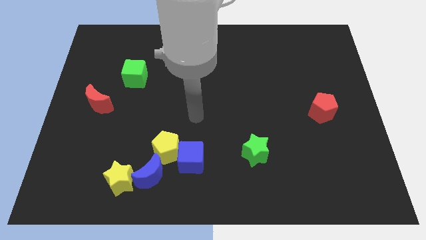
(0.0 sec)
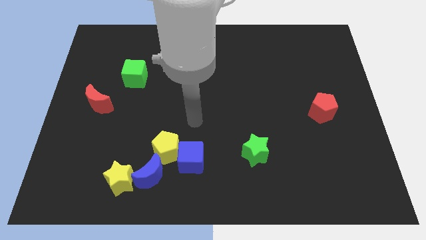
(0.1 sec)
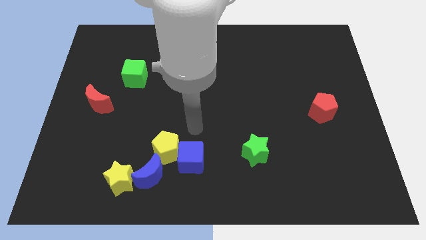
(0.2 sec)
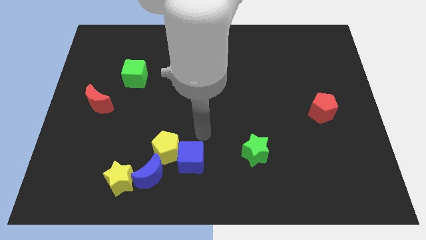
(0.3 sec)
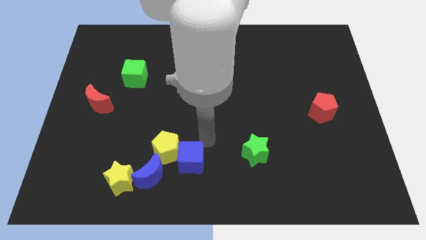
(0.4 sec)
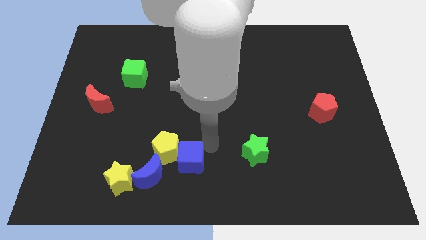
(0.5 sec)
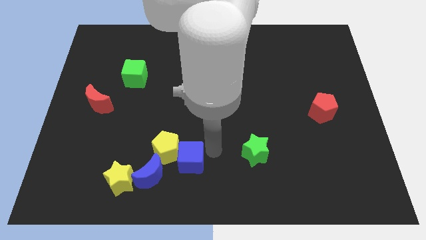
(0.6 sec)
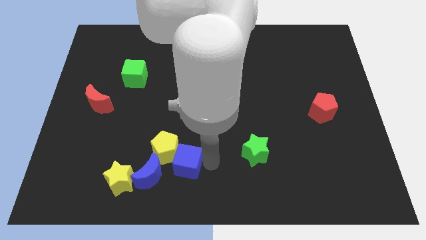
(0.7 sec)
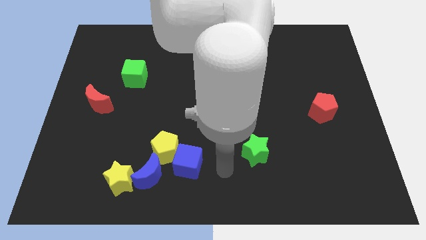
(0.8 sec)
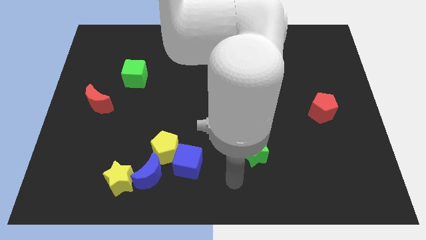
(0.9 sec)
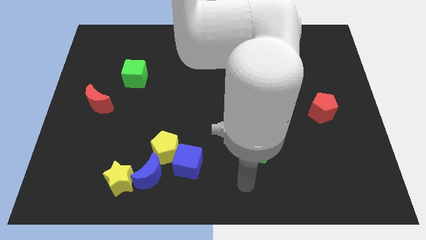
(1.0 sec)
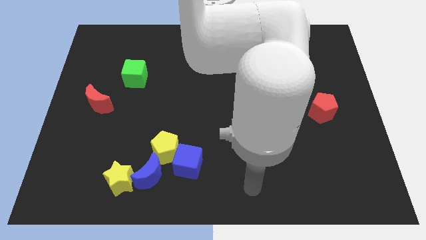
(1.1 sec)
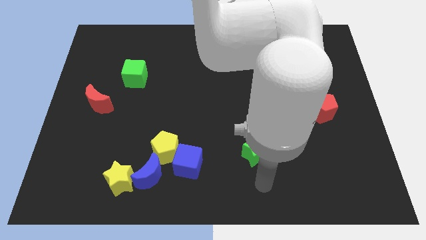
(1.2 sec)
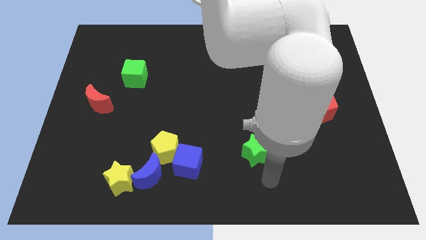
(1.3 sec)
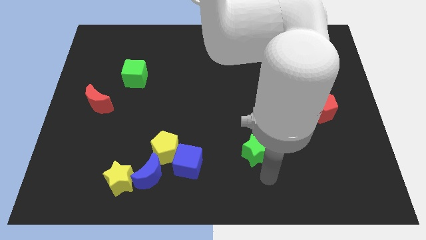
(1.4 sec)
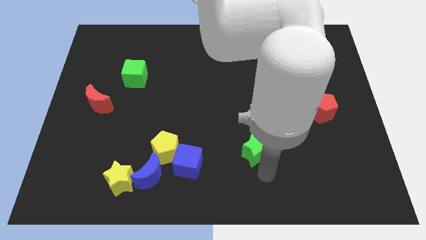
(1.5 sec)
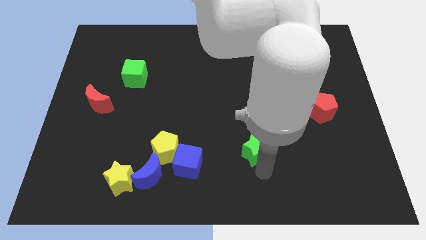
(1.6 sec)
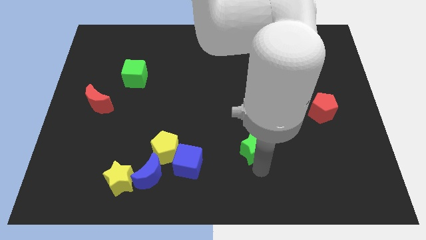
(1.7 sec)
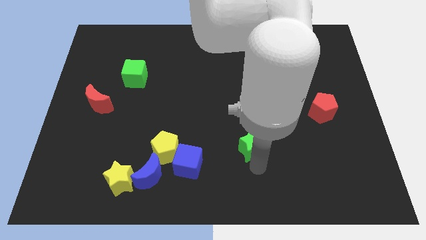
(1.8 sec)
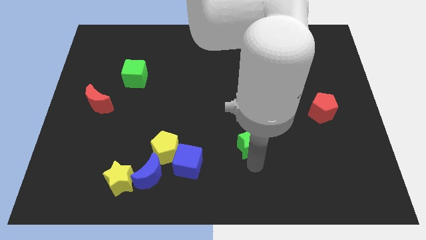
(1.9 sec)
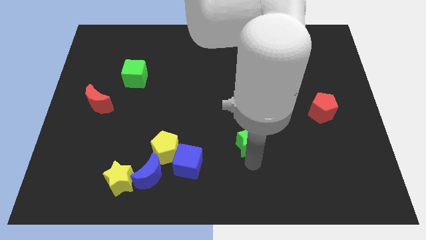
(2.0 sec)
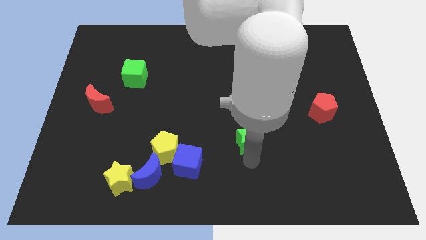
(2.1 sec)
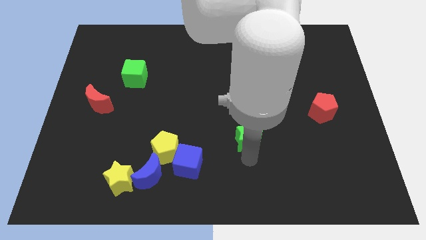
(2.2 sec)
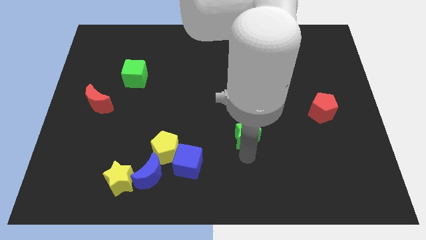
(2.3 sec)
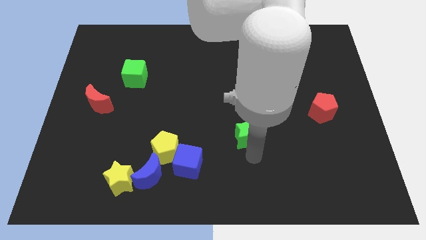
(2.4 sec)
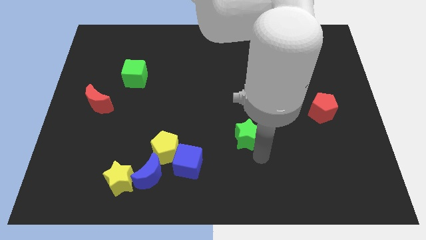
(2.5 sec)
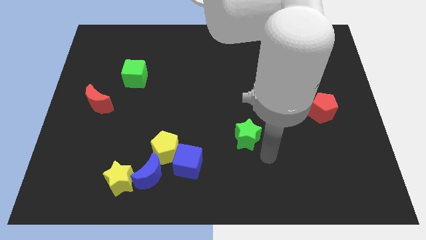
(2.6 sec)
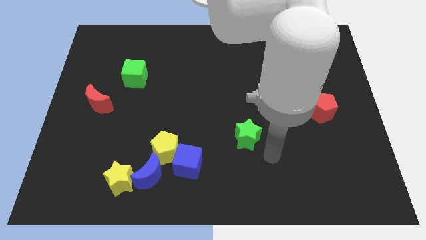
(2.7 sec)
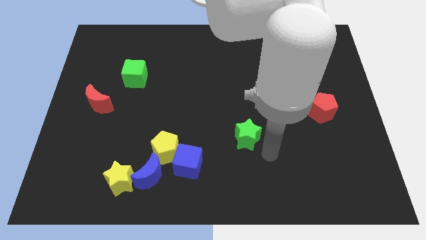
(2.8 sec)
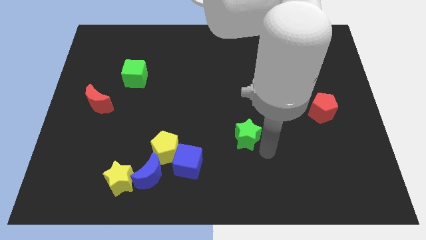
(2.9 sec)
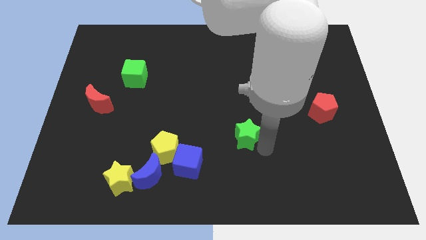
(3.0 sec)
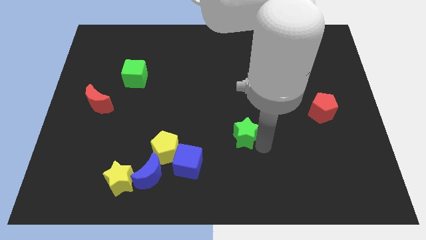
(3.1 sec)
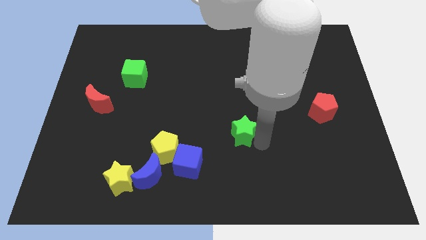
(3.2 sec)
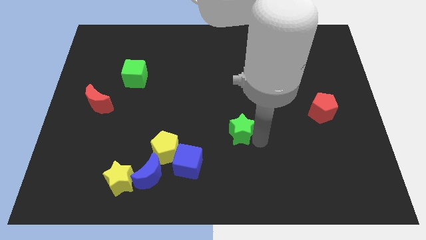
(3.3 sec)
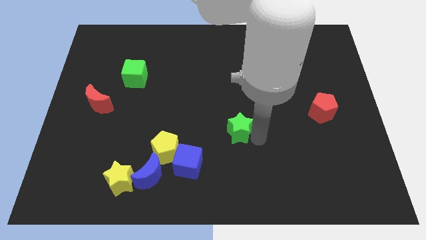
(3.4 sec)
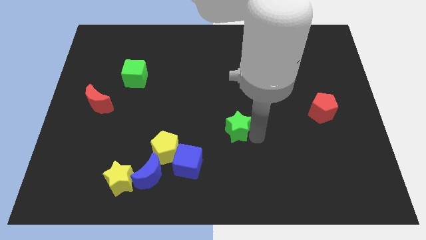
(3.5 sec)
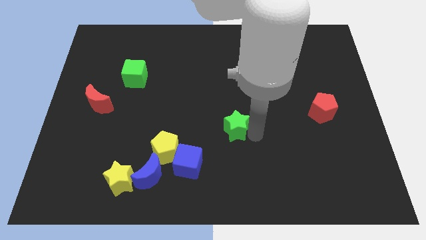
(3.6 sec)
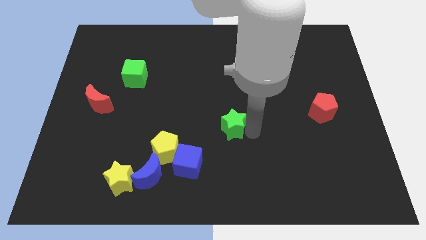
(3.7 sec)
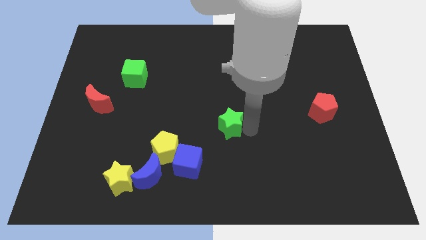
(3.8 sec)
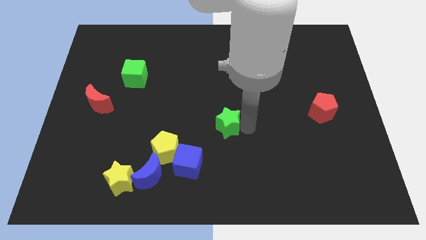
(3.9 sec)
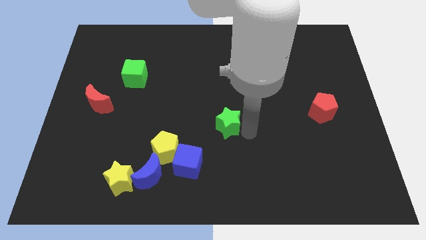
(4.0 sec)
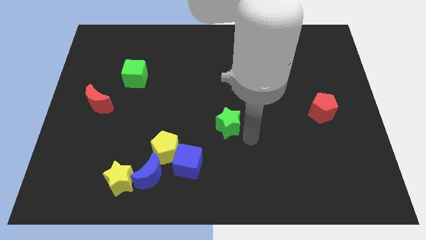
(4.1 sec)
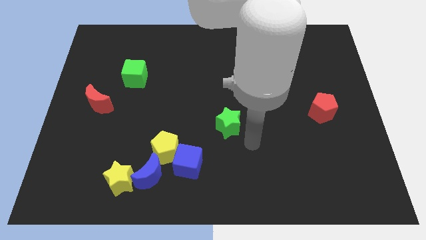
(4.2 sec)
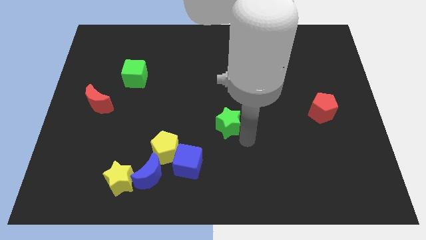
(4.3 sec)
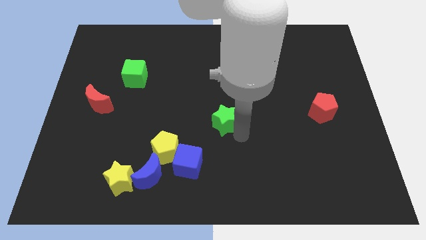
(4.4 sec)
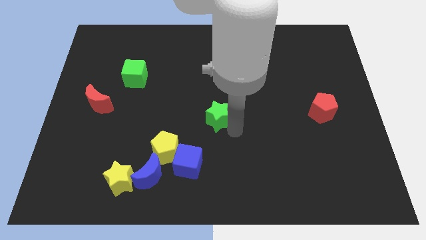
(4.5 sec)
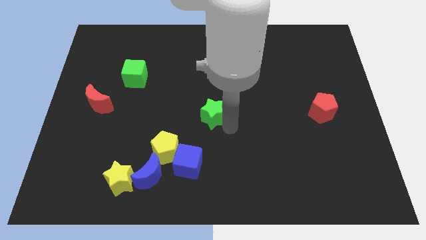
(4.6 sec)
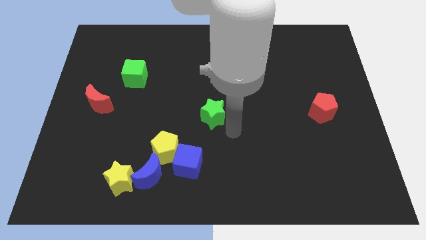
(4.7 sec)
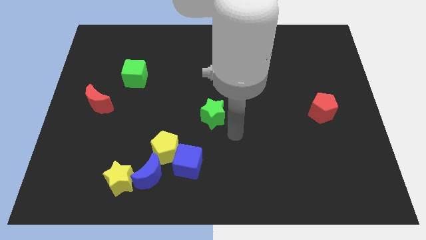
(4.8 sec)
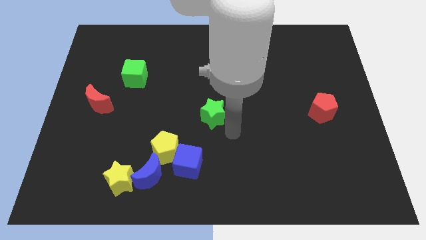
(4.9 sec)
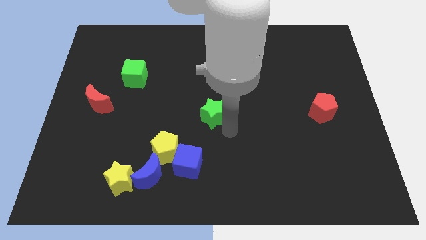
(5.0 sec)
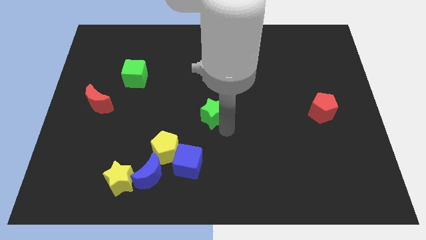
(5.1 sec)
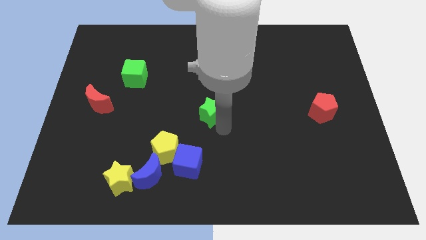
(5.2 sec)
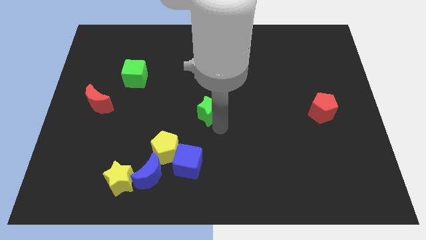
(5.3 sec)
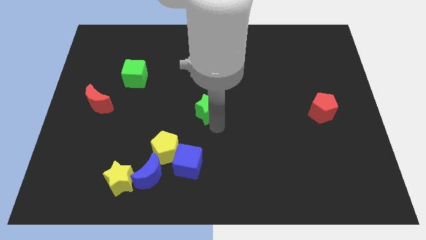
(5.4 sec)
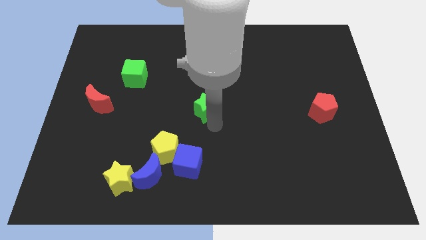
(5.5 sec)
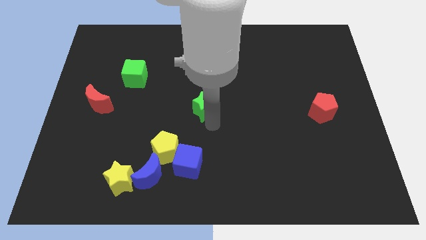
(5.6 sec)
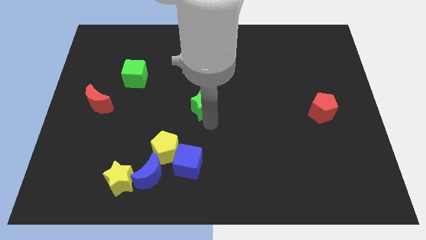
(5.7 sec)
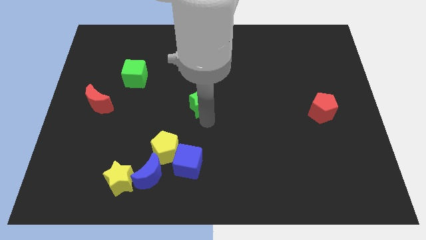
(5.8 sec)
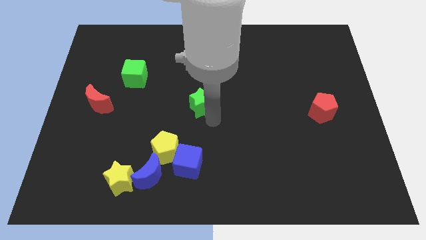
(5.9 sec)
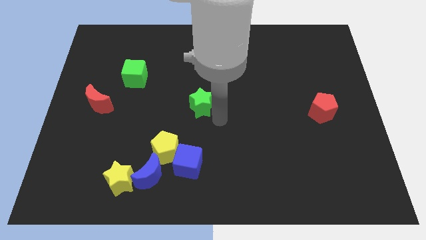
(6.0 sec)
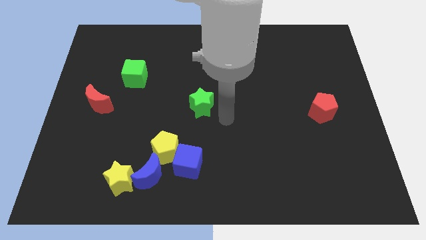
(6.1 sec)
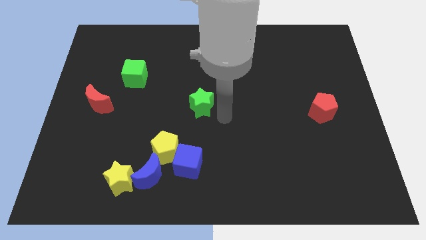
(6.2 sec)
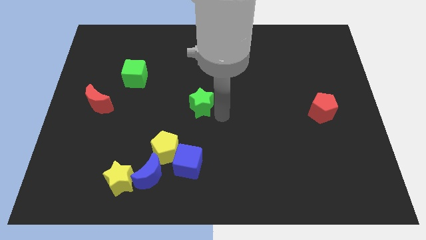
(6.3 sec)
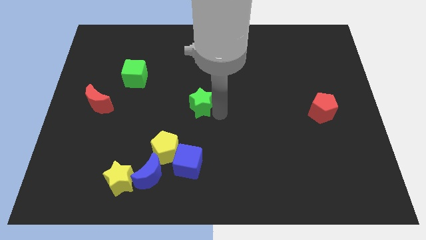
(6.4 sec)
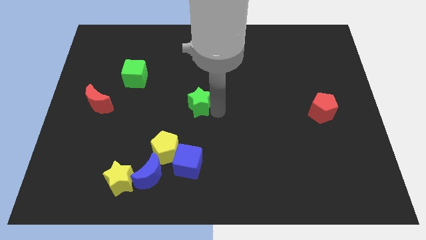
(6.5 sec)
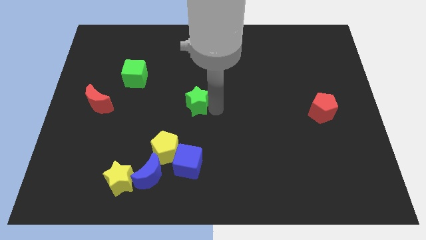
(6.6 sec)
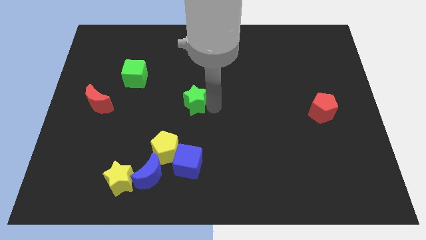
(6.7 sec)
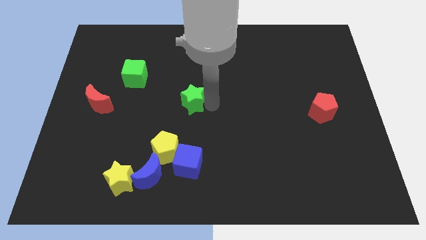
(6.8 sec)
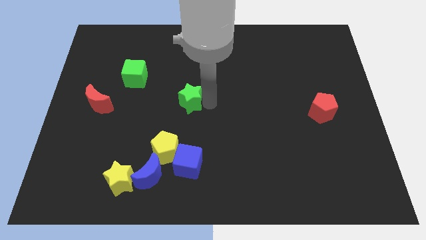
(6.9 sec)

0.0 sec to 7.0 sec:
slide the green star up and left

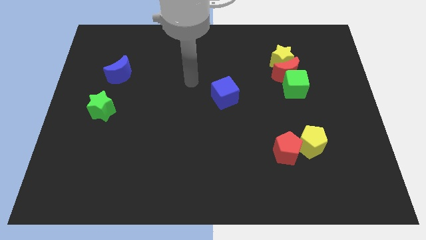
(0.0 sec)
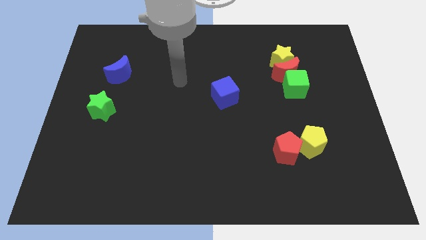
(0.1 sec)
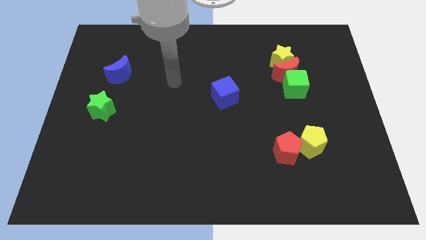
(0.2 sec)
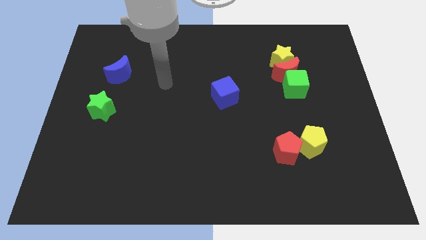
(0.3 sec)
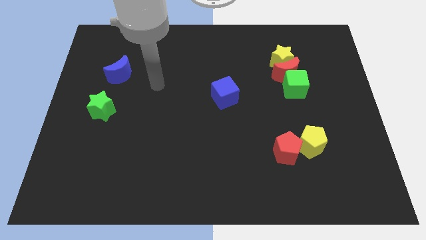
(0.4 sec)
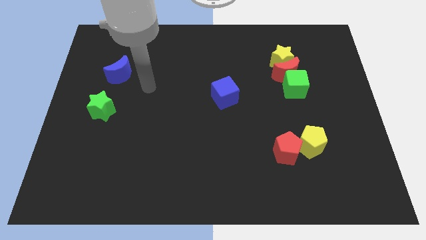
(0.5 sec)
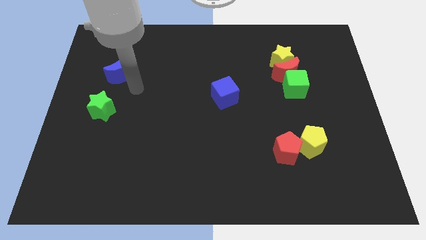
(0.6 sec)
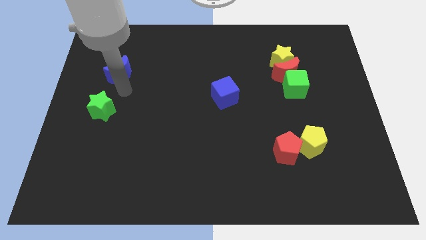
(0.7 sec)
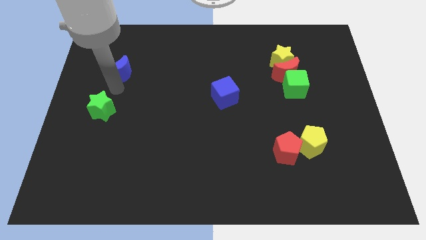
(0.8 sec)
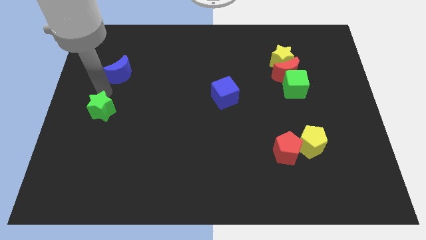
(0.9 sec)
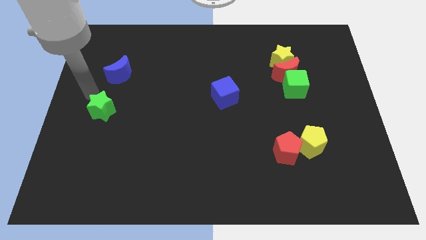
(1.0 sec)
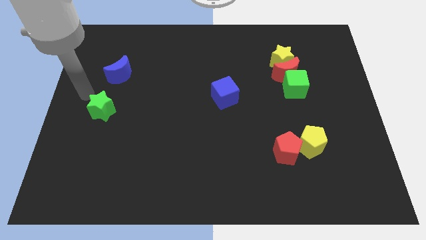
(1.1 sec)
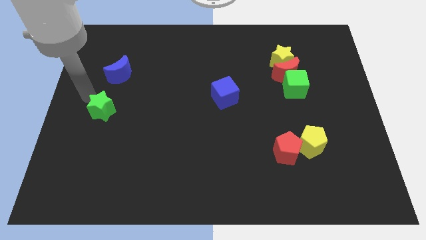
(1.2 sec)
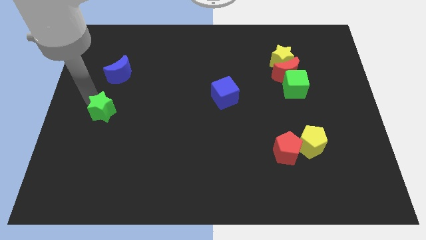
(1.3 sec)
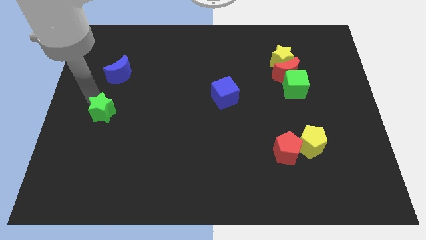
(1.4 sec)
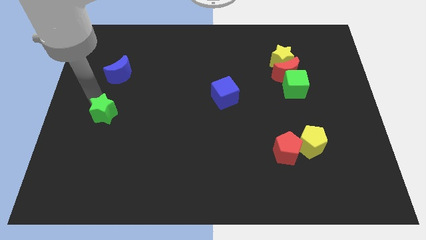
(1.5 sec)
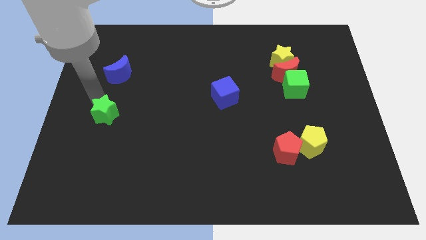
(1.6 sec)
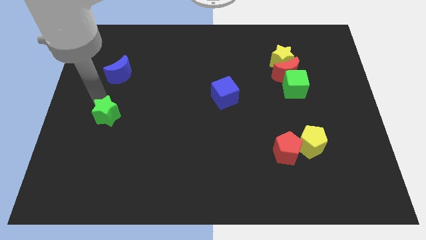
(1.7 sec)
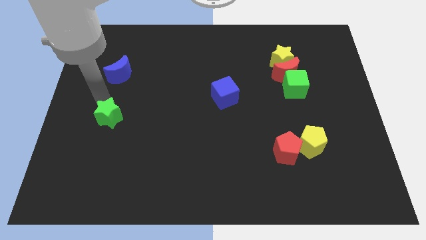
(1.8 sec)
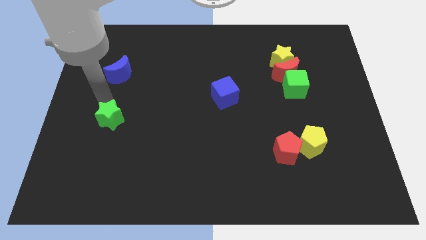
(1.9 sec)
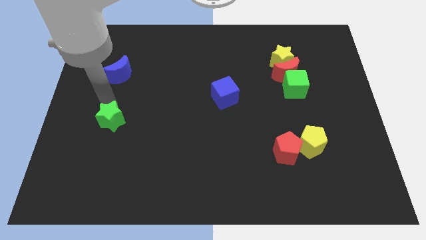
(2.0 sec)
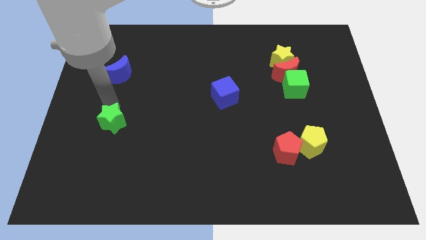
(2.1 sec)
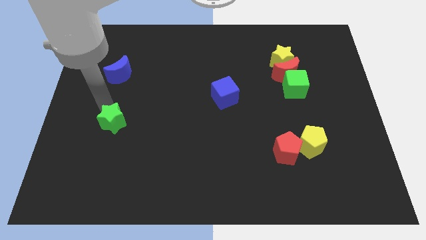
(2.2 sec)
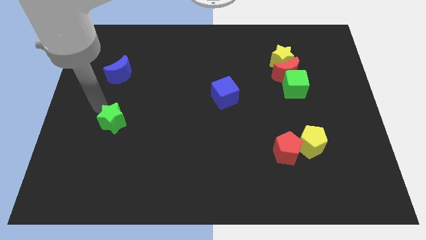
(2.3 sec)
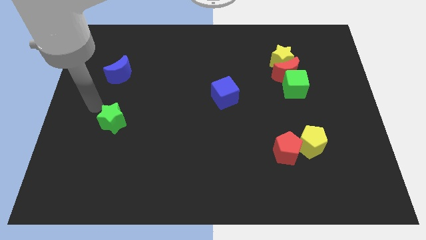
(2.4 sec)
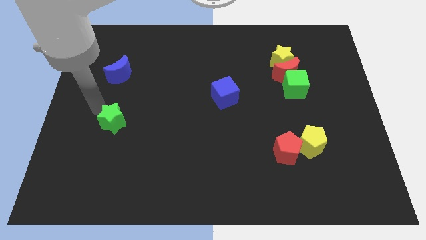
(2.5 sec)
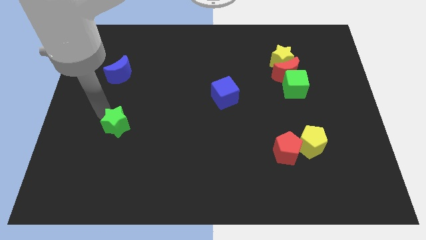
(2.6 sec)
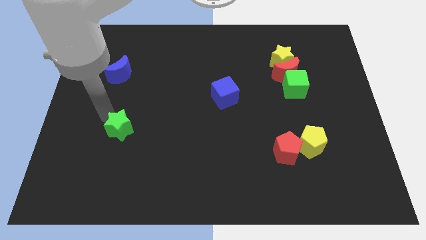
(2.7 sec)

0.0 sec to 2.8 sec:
slightly move the green star downwards and to the right
